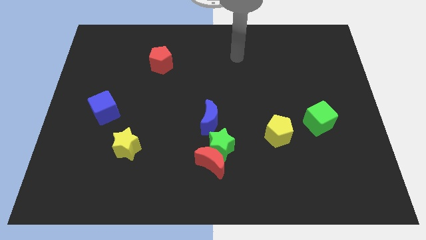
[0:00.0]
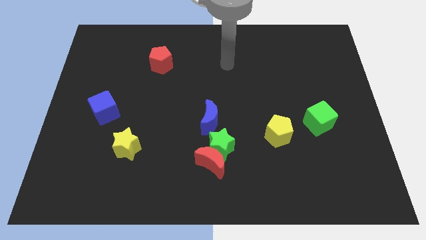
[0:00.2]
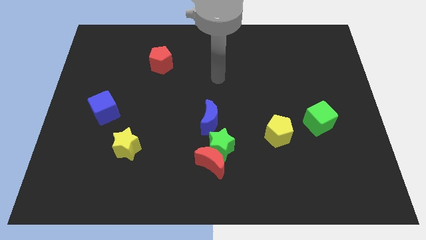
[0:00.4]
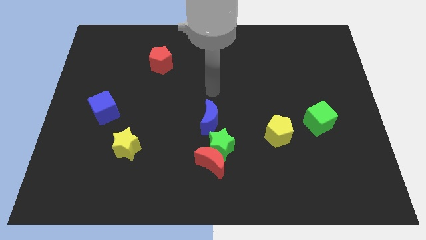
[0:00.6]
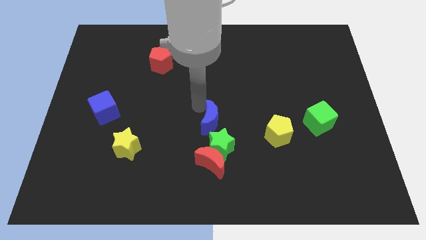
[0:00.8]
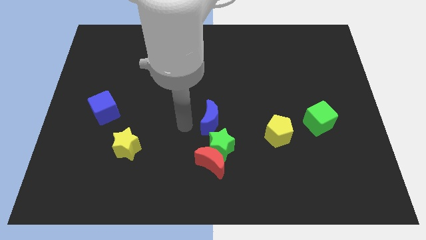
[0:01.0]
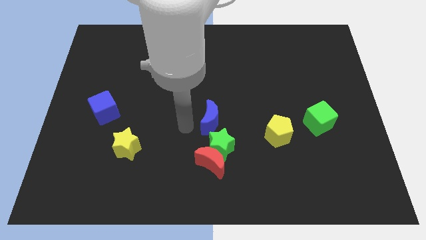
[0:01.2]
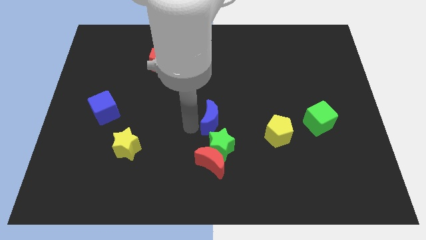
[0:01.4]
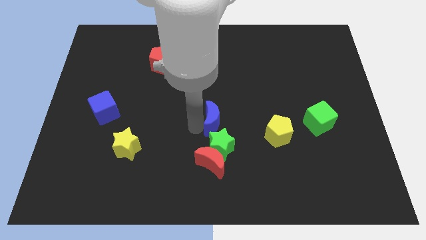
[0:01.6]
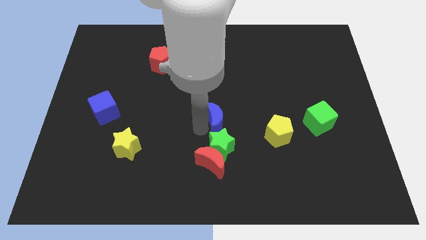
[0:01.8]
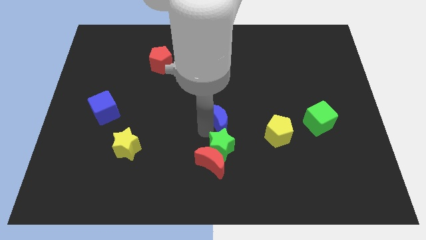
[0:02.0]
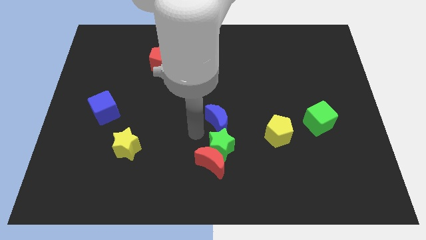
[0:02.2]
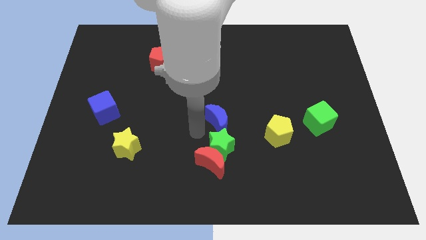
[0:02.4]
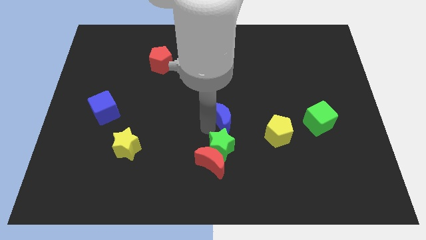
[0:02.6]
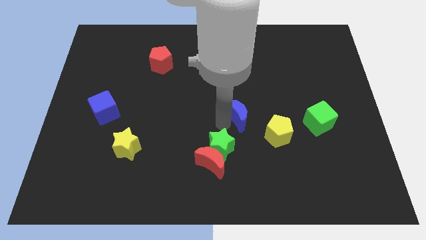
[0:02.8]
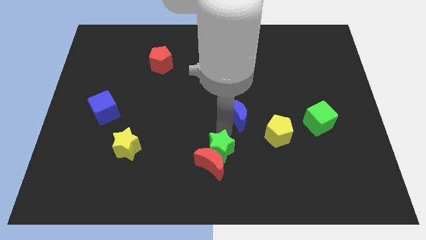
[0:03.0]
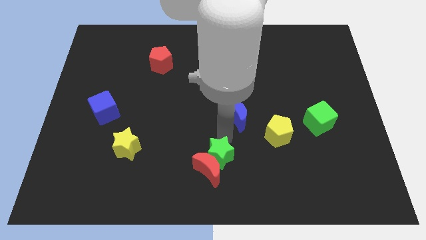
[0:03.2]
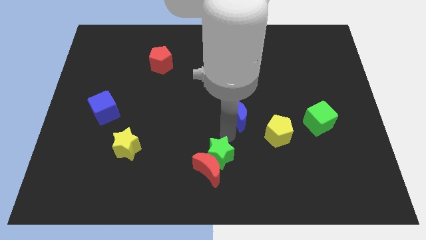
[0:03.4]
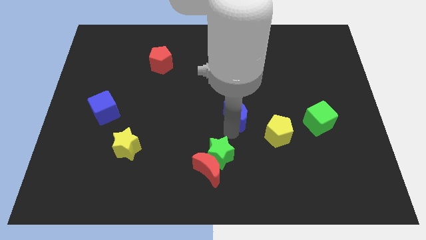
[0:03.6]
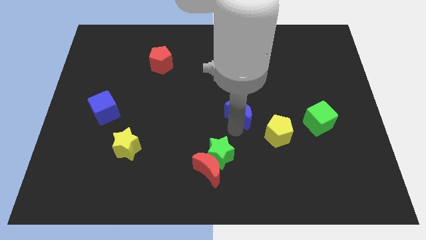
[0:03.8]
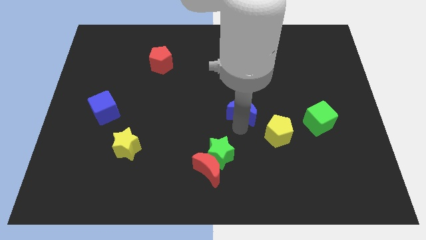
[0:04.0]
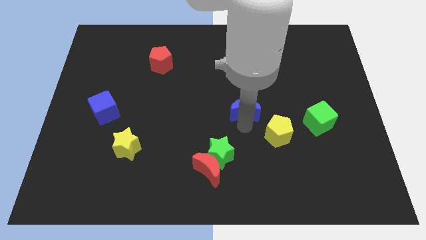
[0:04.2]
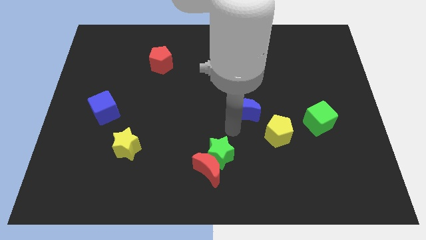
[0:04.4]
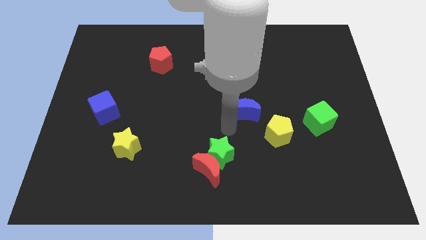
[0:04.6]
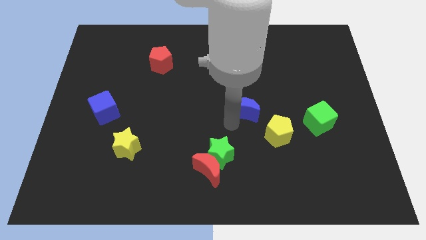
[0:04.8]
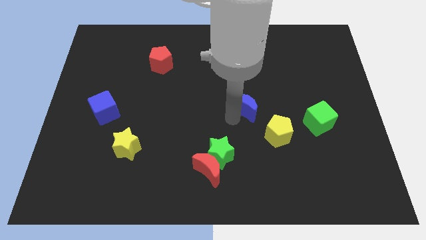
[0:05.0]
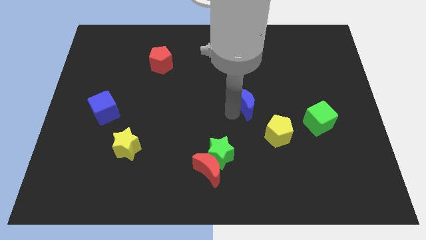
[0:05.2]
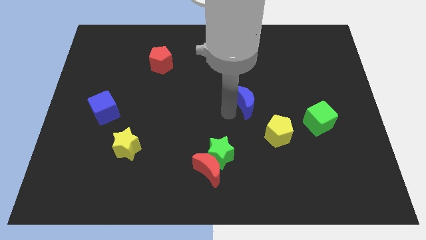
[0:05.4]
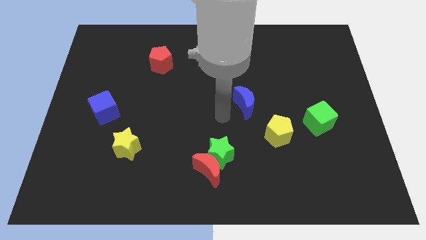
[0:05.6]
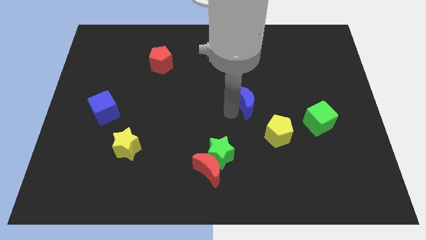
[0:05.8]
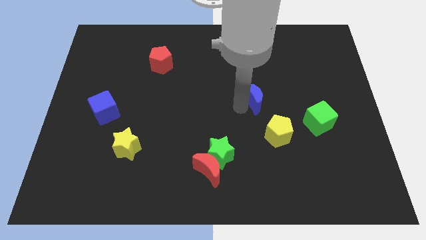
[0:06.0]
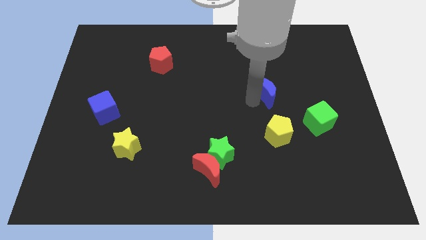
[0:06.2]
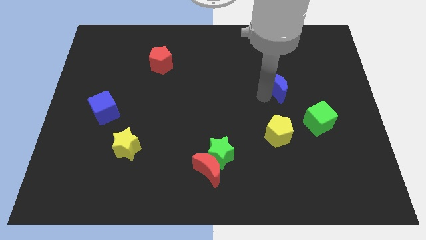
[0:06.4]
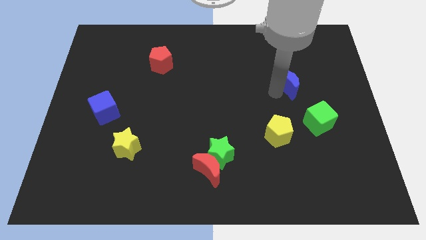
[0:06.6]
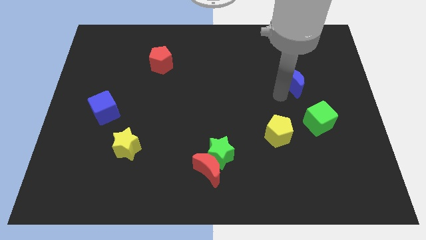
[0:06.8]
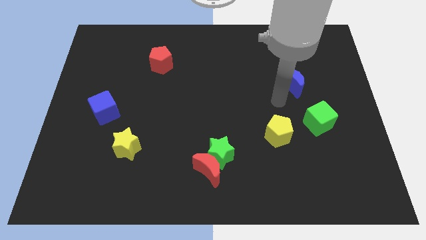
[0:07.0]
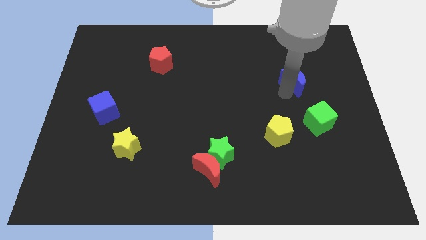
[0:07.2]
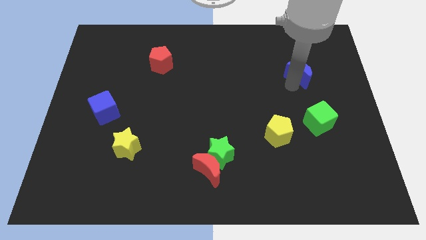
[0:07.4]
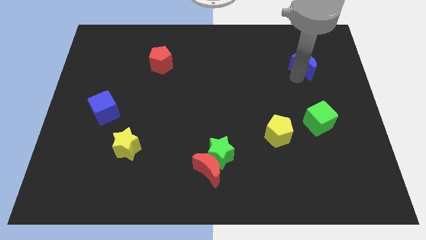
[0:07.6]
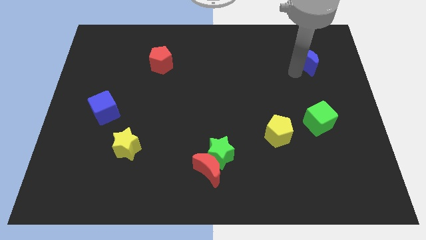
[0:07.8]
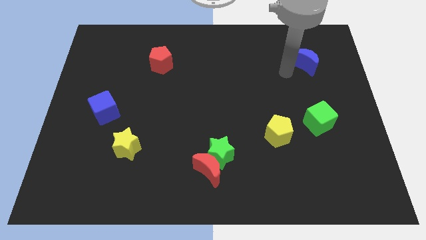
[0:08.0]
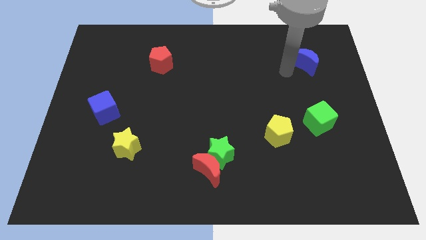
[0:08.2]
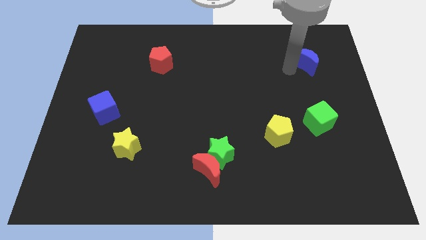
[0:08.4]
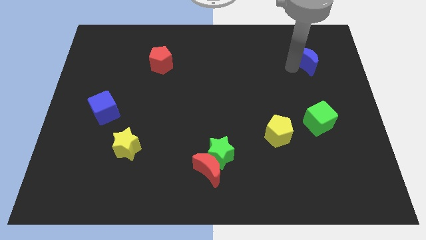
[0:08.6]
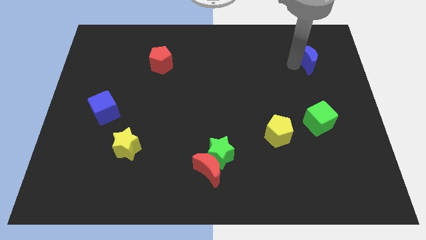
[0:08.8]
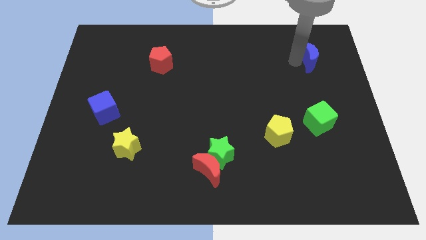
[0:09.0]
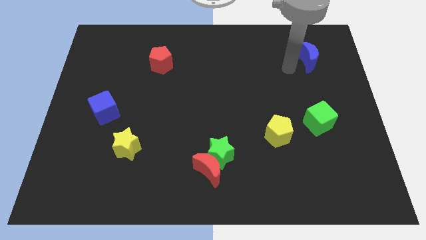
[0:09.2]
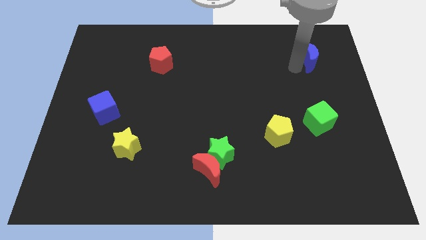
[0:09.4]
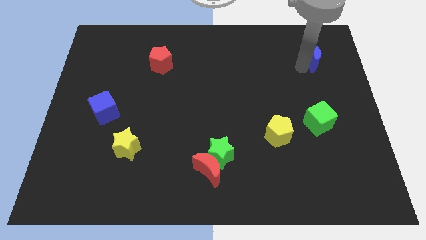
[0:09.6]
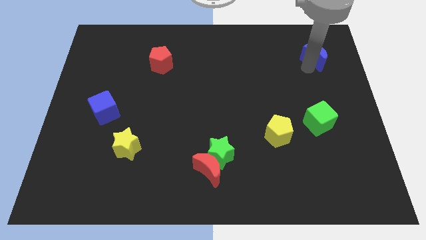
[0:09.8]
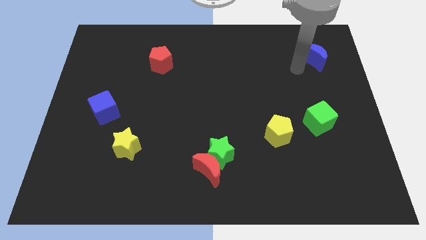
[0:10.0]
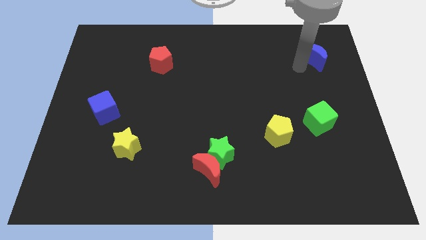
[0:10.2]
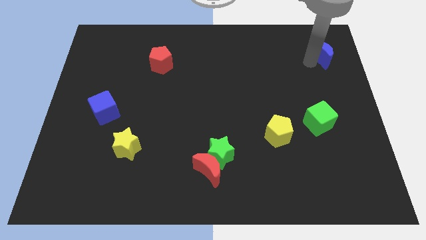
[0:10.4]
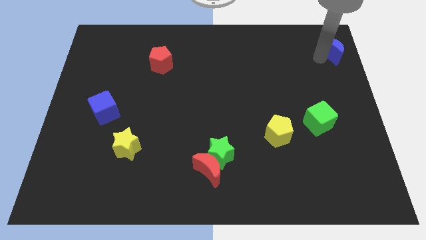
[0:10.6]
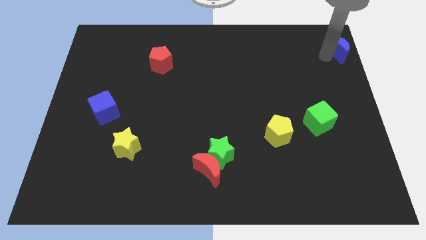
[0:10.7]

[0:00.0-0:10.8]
slide the blue moon to the upper right corner

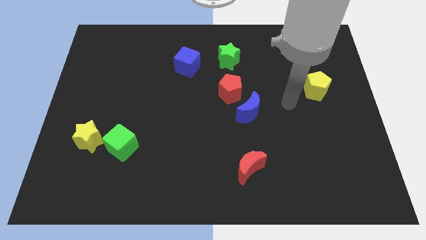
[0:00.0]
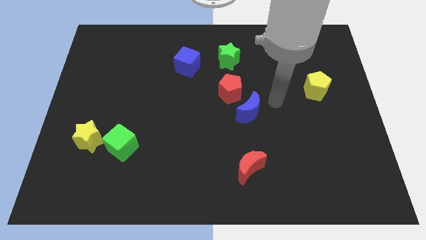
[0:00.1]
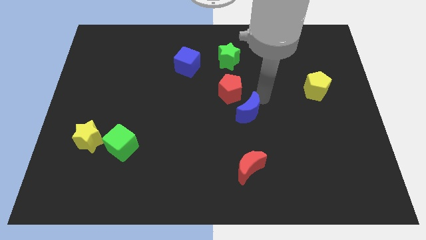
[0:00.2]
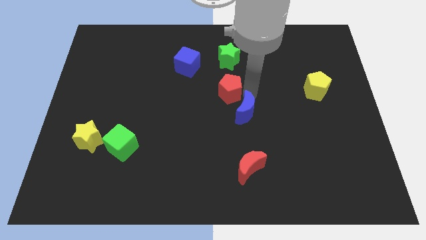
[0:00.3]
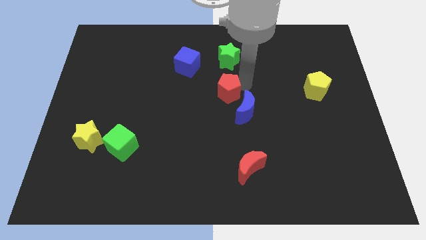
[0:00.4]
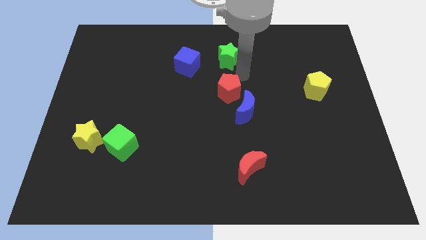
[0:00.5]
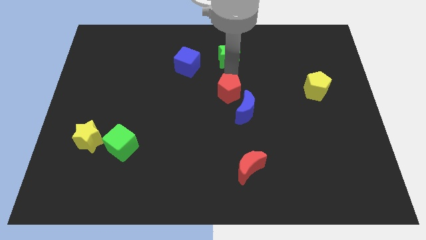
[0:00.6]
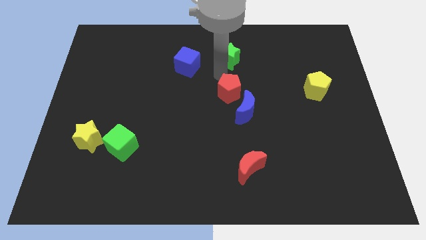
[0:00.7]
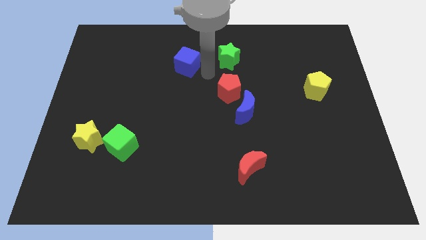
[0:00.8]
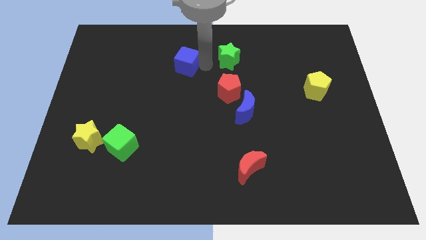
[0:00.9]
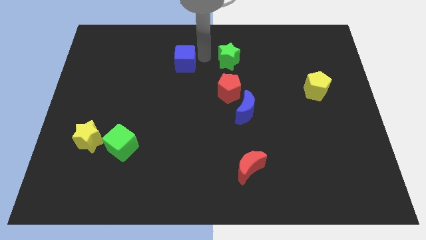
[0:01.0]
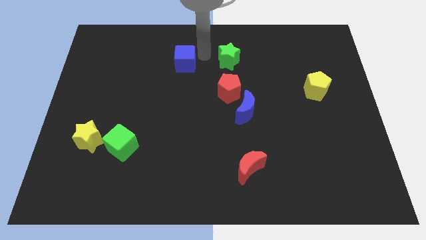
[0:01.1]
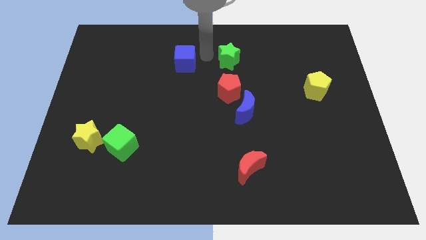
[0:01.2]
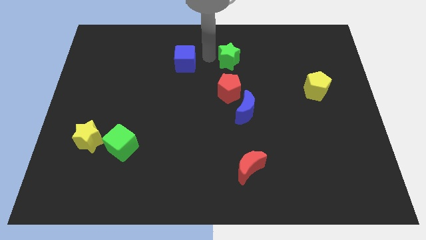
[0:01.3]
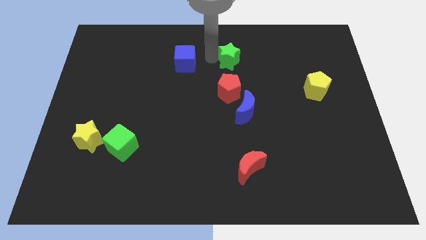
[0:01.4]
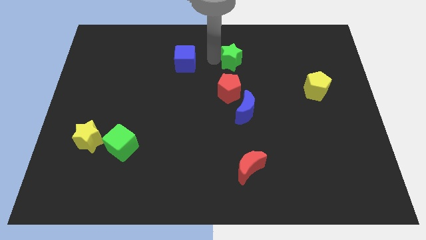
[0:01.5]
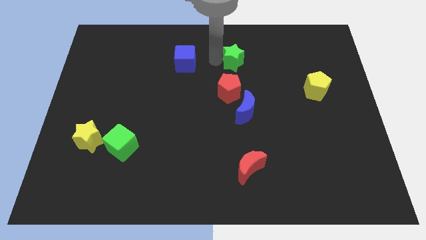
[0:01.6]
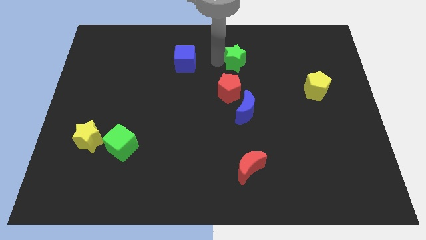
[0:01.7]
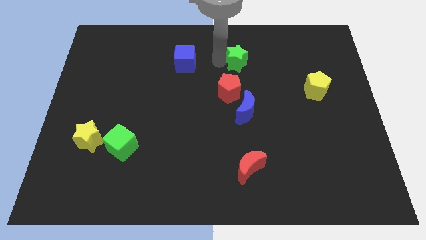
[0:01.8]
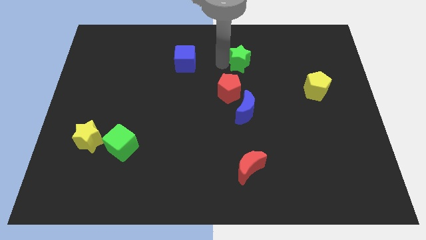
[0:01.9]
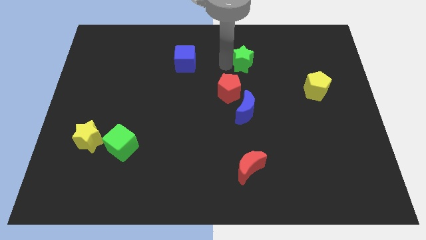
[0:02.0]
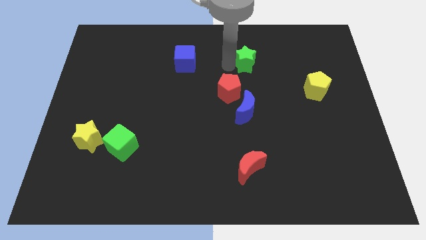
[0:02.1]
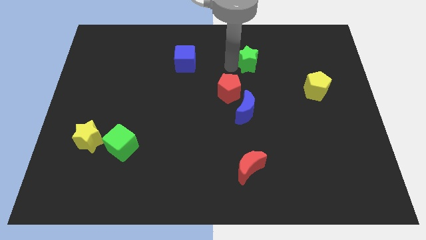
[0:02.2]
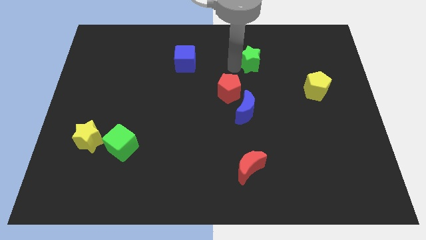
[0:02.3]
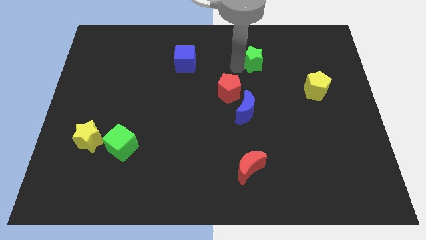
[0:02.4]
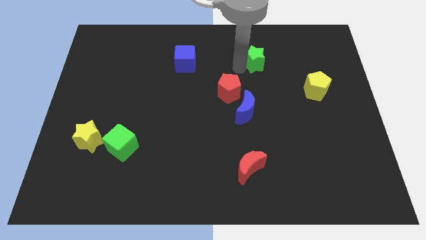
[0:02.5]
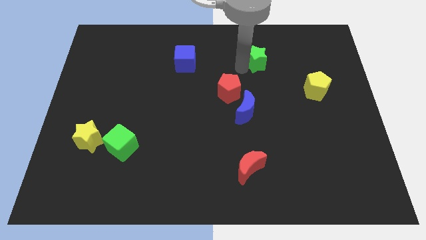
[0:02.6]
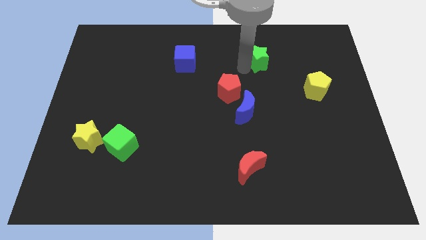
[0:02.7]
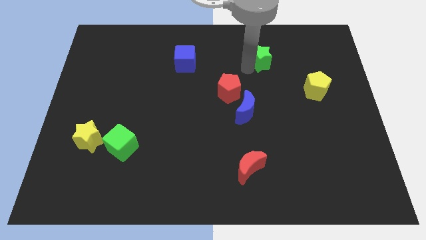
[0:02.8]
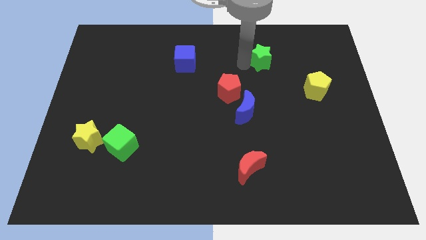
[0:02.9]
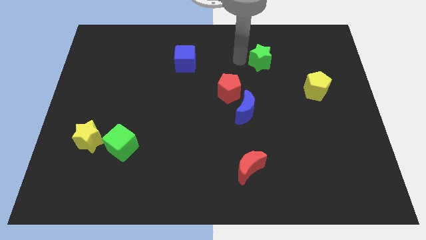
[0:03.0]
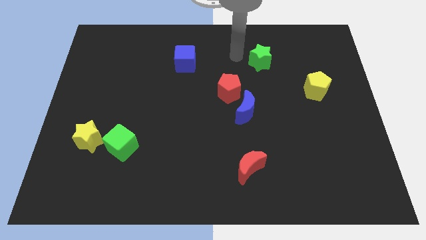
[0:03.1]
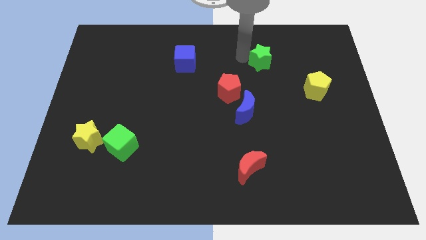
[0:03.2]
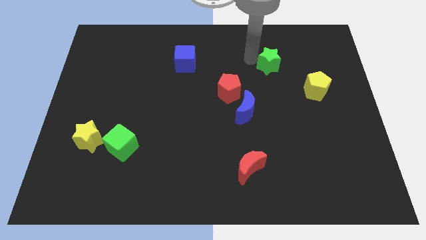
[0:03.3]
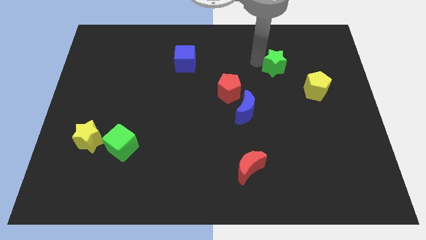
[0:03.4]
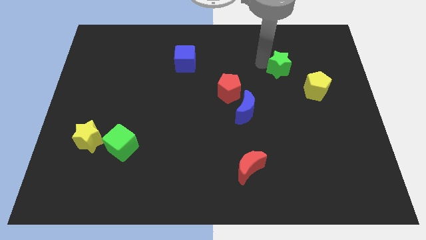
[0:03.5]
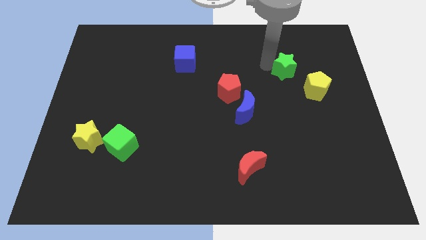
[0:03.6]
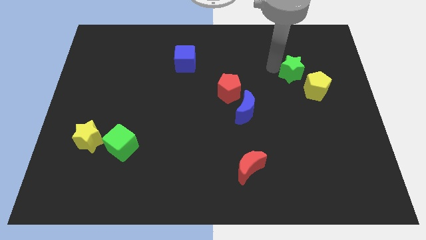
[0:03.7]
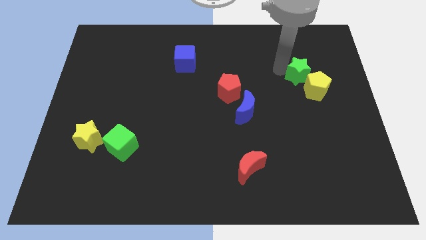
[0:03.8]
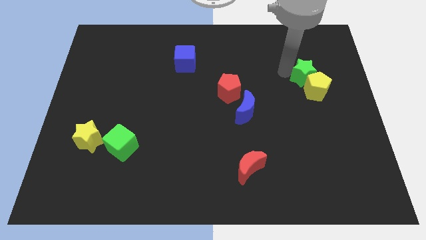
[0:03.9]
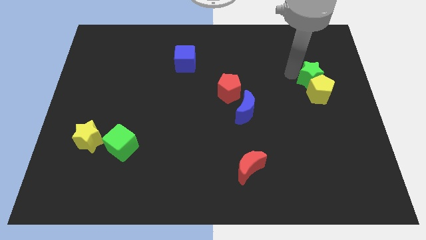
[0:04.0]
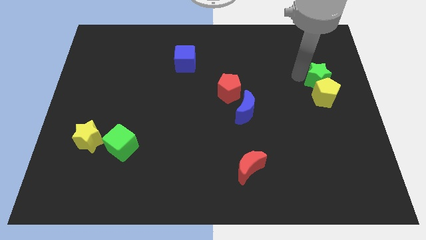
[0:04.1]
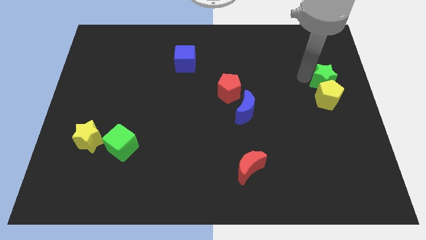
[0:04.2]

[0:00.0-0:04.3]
slide the green star to the right side of the board
